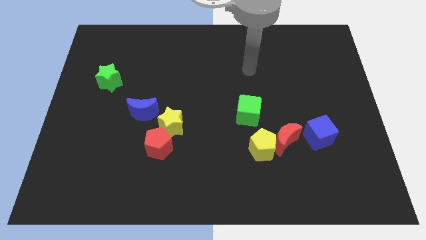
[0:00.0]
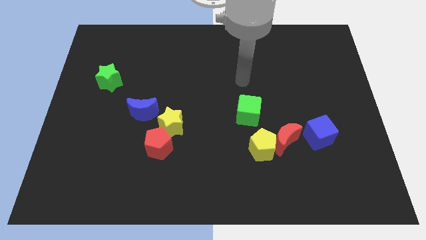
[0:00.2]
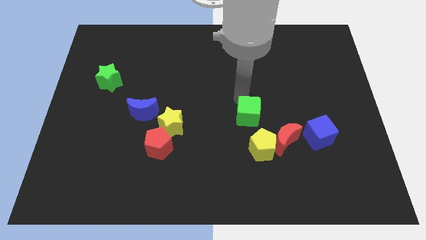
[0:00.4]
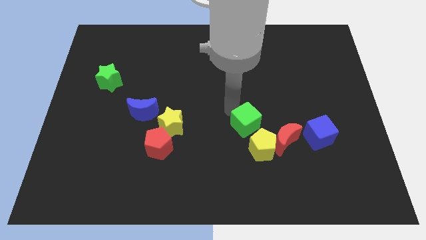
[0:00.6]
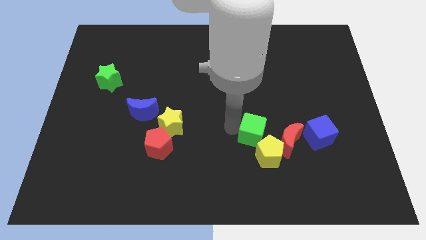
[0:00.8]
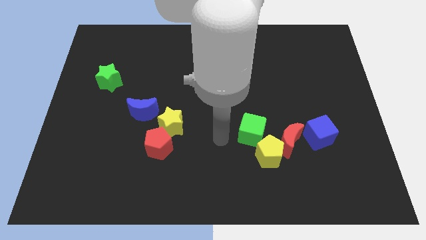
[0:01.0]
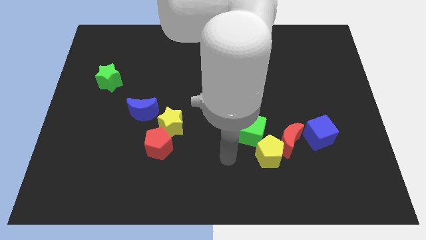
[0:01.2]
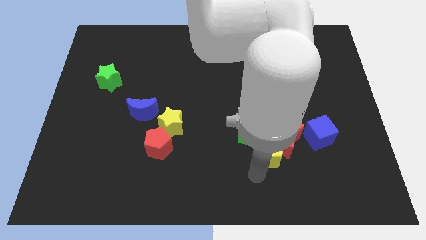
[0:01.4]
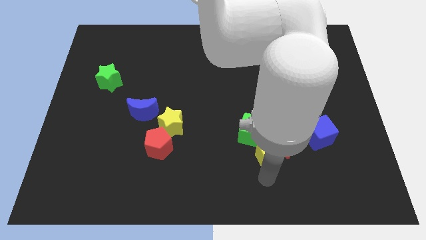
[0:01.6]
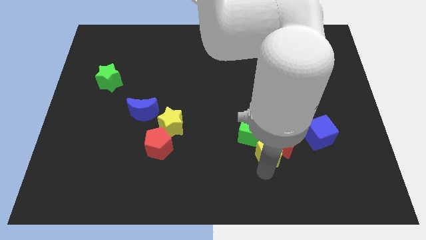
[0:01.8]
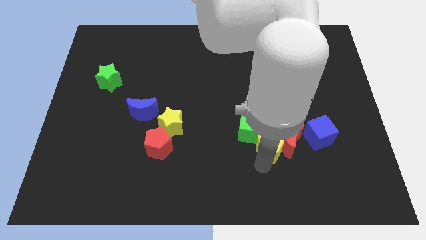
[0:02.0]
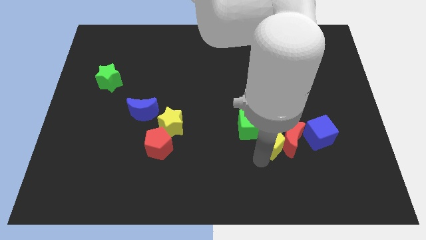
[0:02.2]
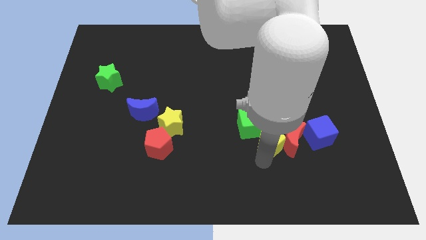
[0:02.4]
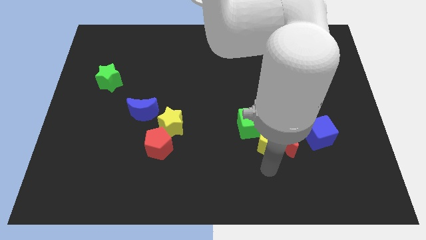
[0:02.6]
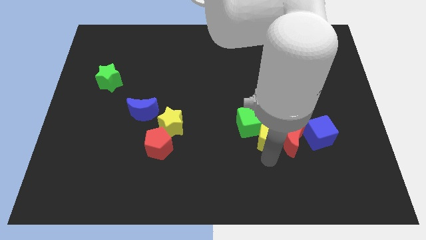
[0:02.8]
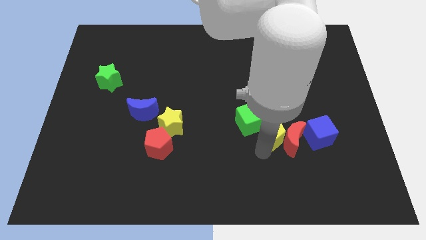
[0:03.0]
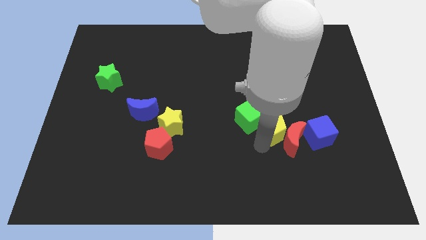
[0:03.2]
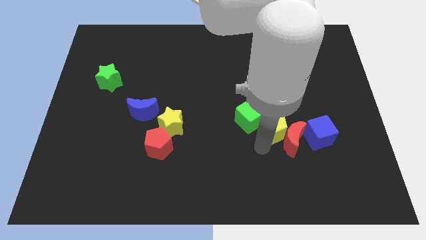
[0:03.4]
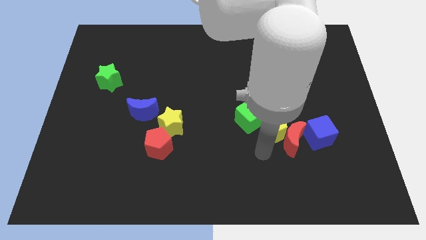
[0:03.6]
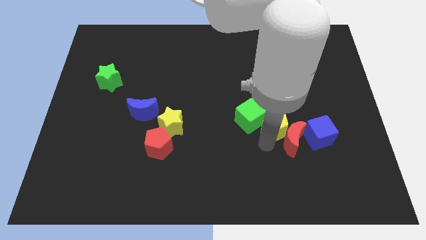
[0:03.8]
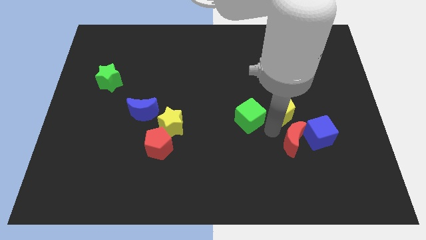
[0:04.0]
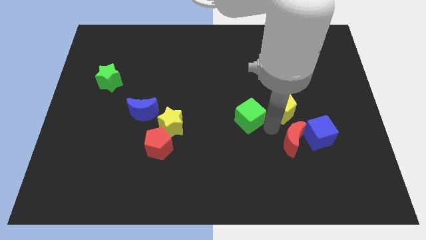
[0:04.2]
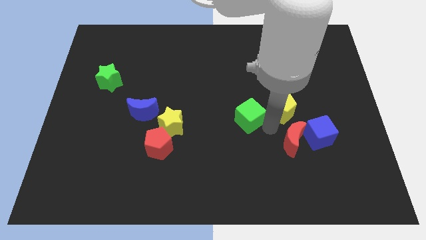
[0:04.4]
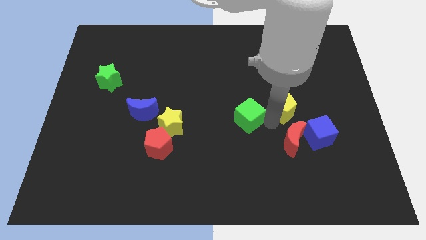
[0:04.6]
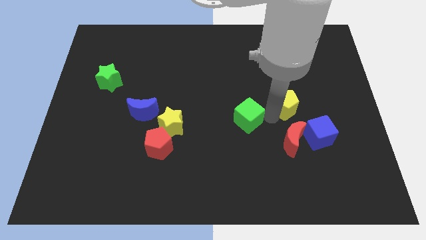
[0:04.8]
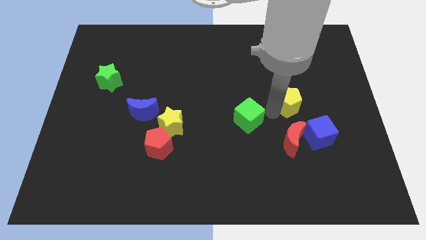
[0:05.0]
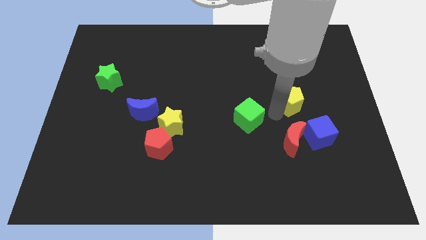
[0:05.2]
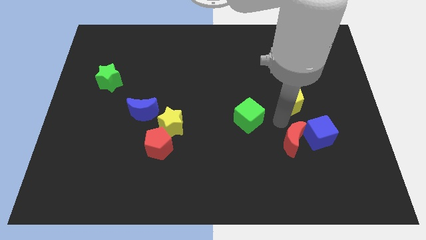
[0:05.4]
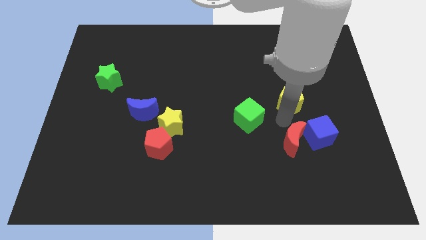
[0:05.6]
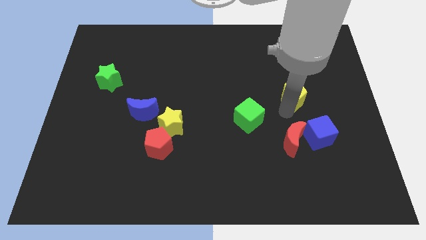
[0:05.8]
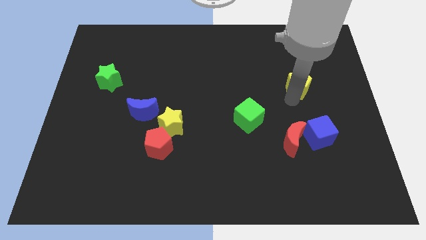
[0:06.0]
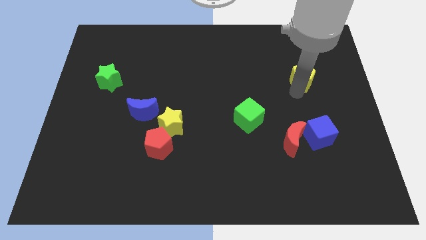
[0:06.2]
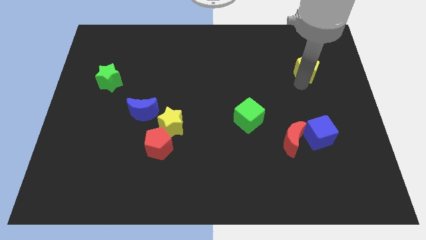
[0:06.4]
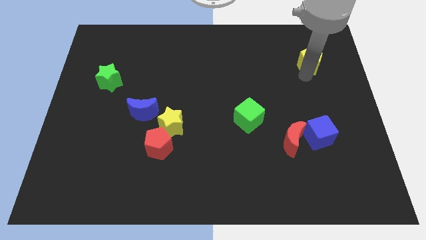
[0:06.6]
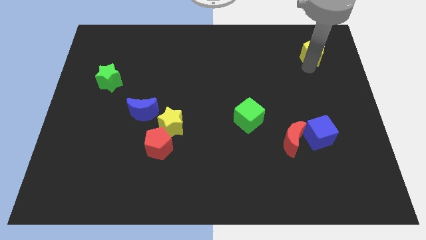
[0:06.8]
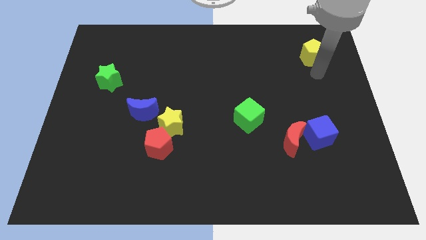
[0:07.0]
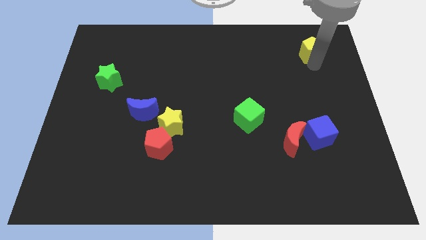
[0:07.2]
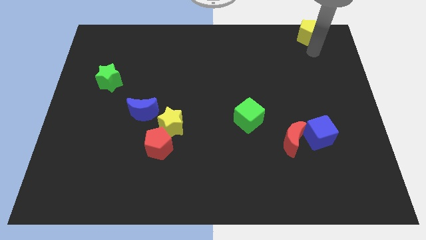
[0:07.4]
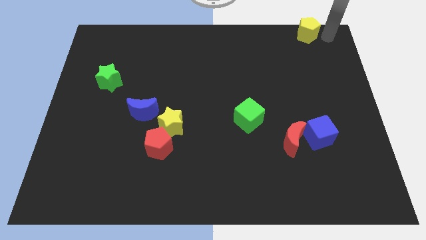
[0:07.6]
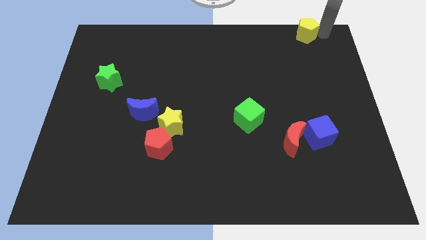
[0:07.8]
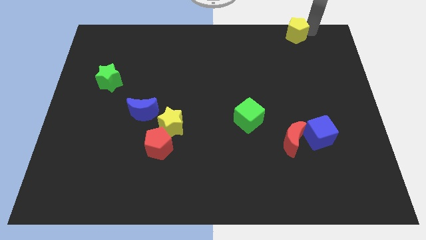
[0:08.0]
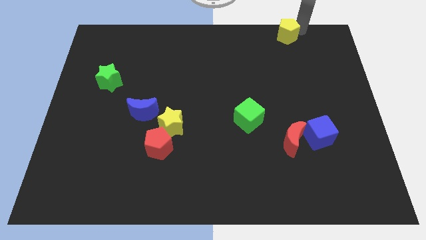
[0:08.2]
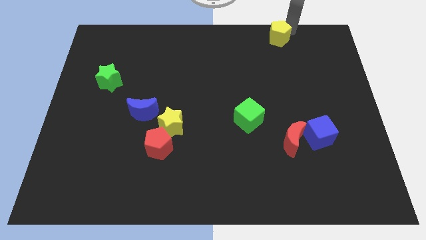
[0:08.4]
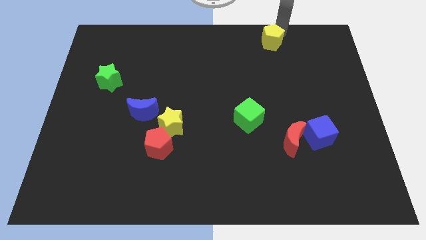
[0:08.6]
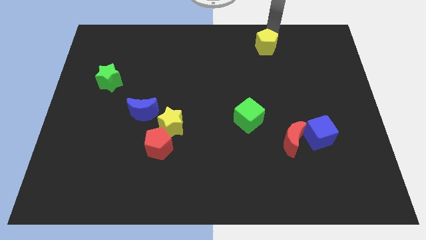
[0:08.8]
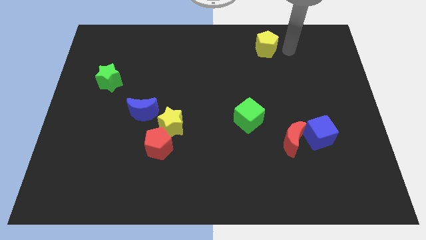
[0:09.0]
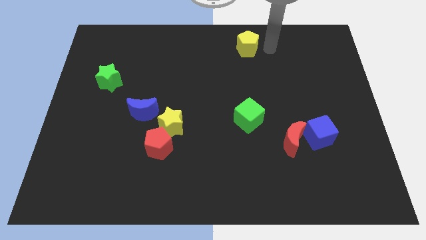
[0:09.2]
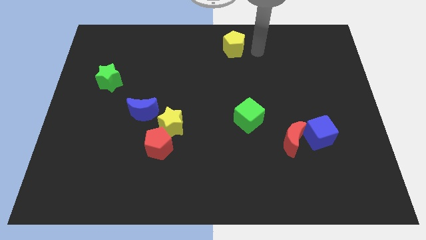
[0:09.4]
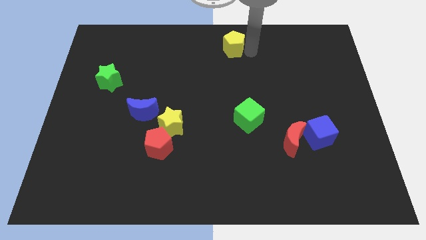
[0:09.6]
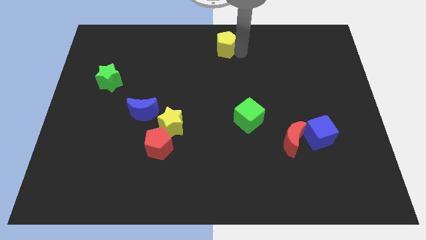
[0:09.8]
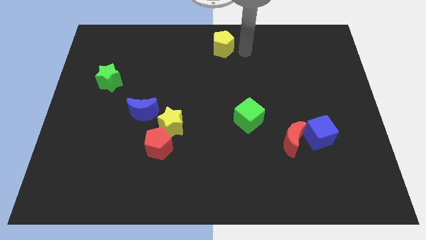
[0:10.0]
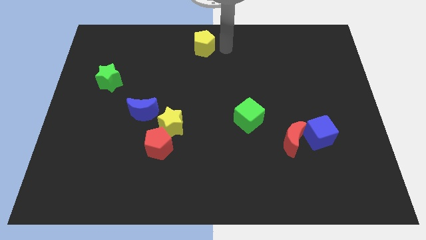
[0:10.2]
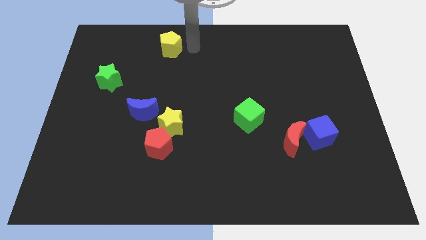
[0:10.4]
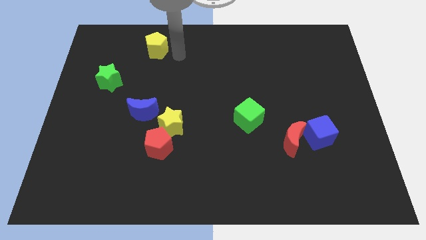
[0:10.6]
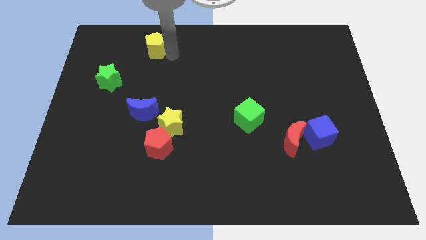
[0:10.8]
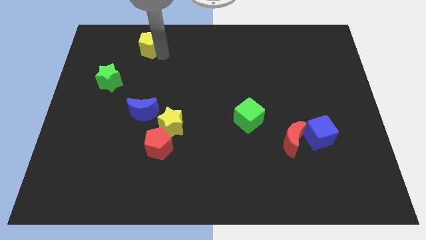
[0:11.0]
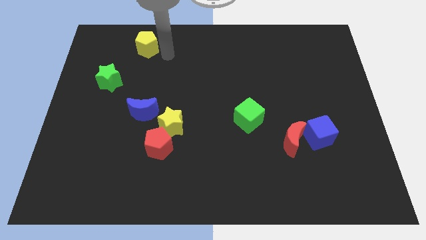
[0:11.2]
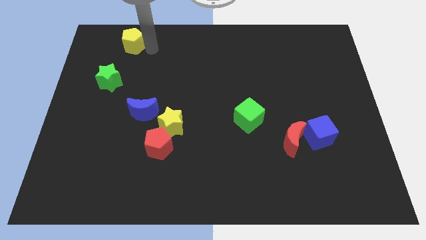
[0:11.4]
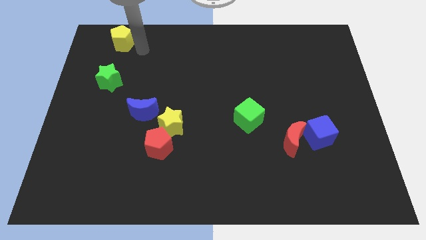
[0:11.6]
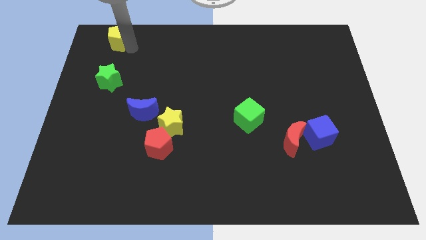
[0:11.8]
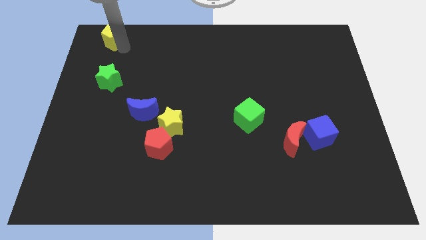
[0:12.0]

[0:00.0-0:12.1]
push the yellow pentagon to the top left corner

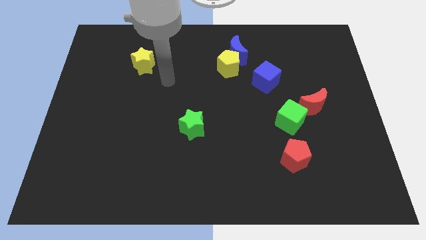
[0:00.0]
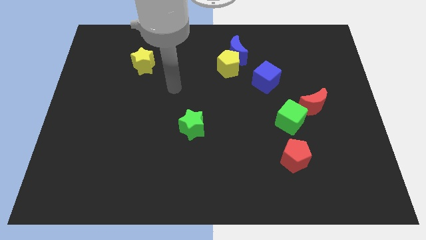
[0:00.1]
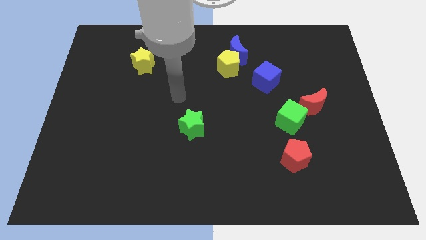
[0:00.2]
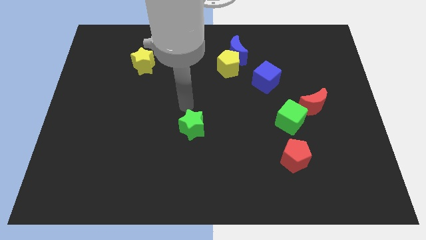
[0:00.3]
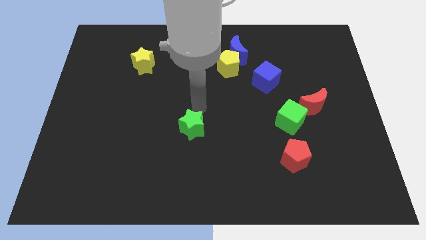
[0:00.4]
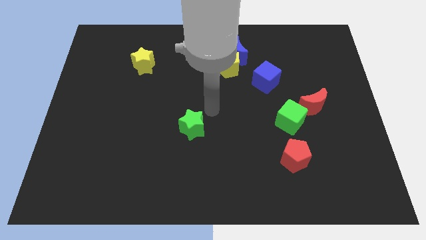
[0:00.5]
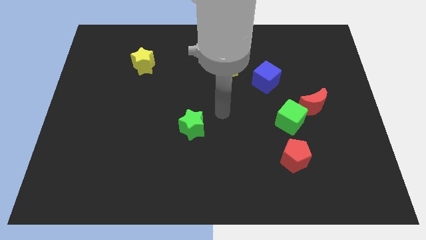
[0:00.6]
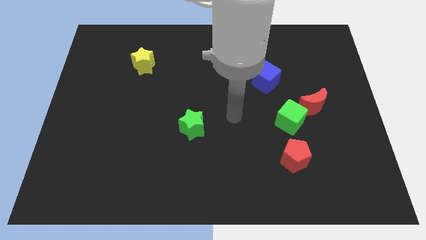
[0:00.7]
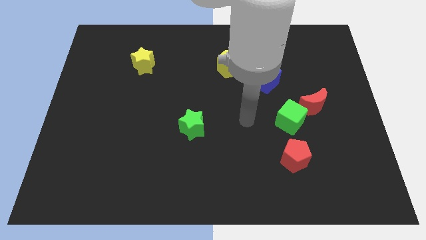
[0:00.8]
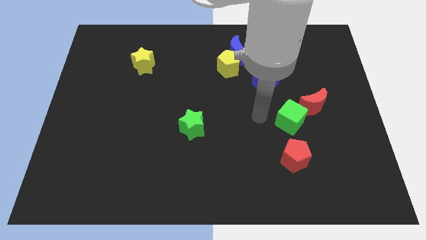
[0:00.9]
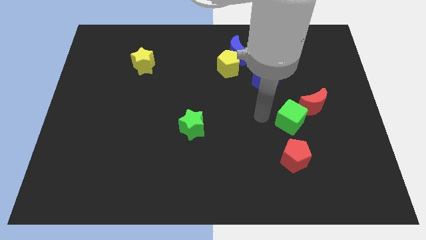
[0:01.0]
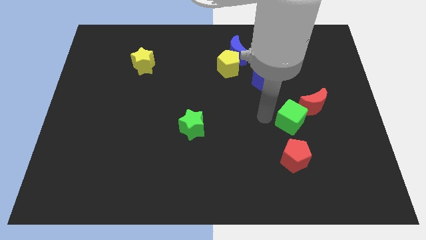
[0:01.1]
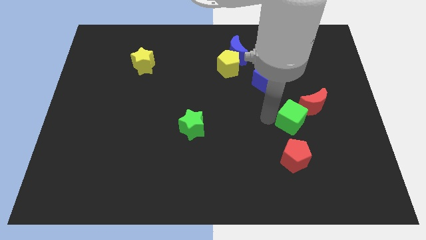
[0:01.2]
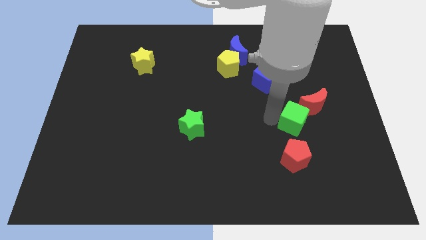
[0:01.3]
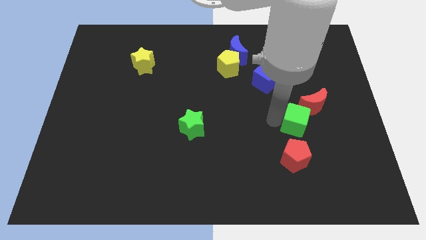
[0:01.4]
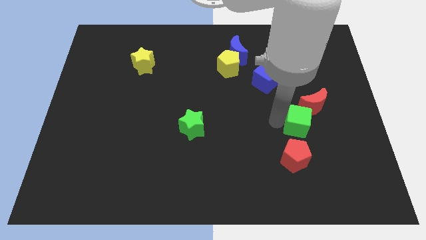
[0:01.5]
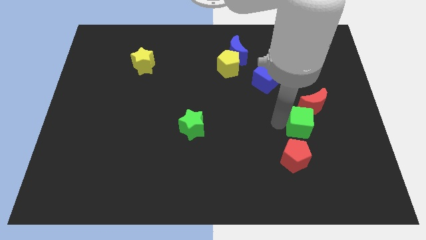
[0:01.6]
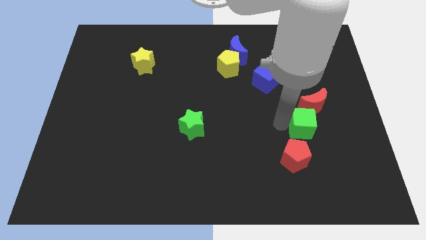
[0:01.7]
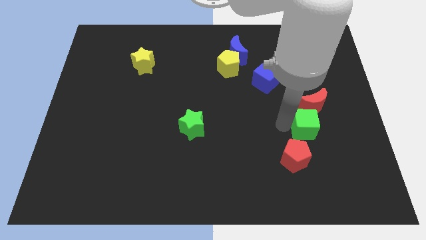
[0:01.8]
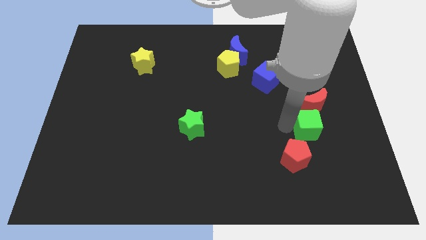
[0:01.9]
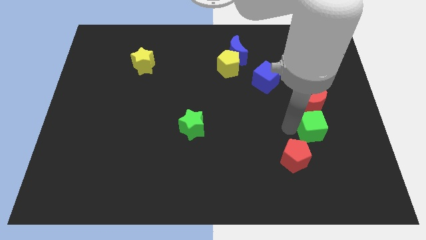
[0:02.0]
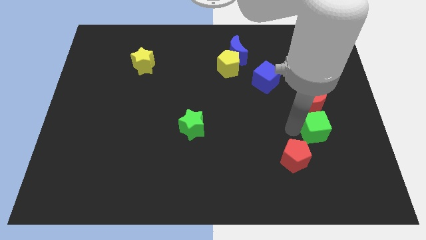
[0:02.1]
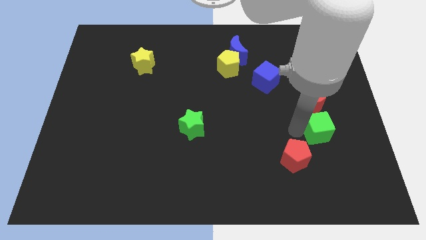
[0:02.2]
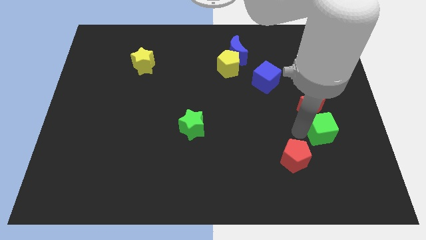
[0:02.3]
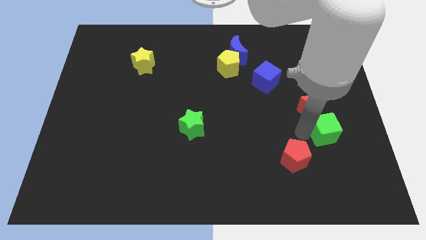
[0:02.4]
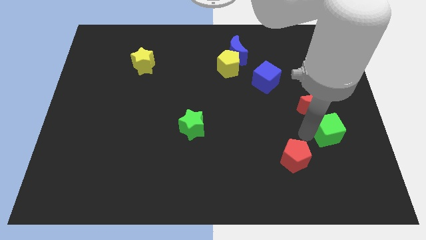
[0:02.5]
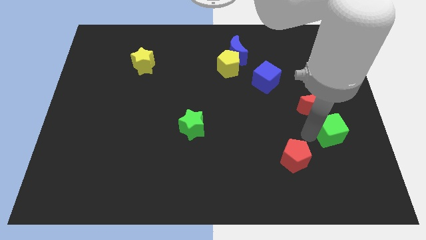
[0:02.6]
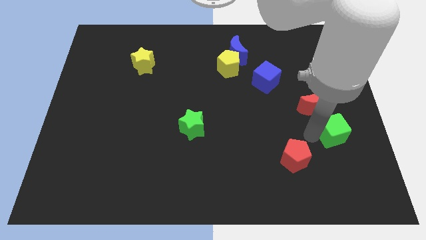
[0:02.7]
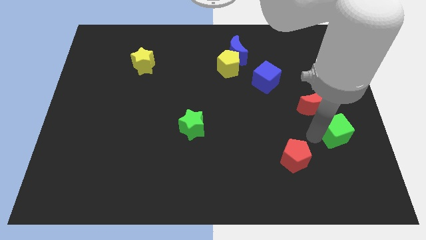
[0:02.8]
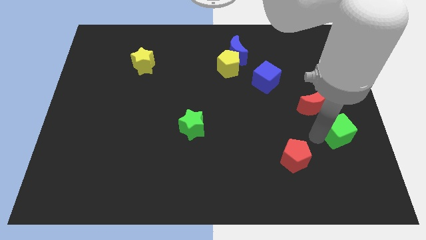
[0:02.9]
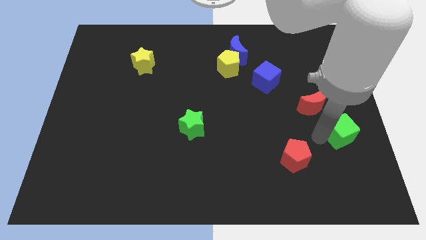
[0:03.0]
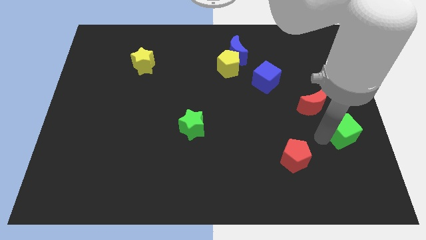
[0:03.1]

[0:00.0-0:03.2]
put the green cube to the center right
